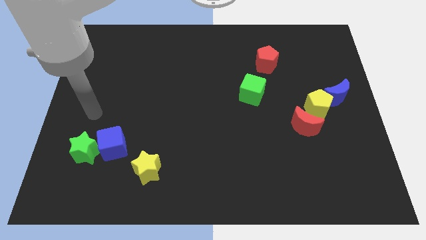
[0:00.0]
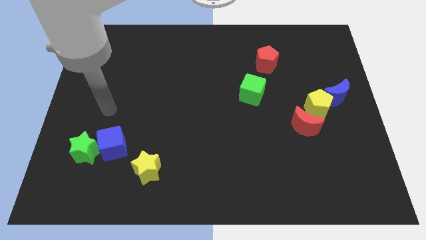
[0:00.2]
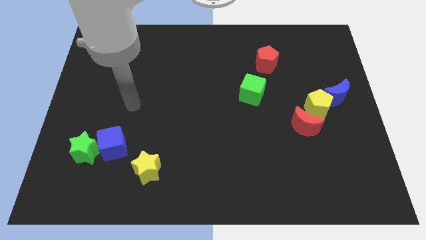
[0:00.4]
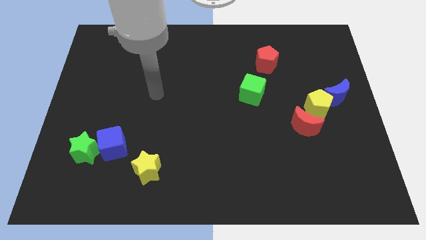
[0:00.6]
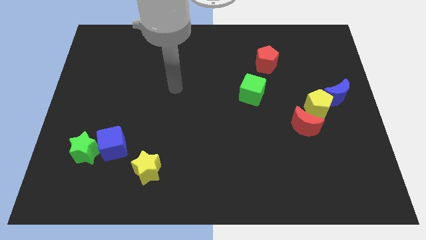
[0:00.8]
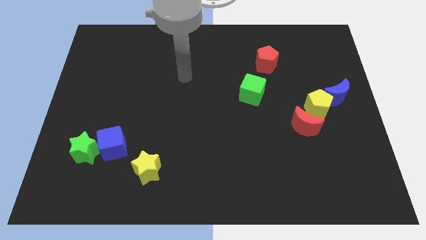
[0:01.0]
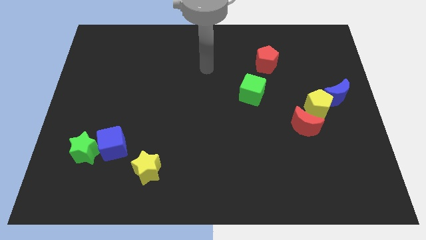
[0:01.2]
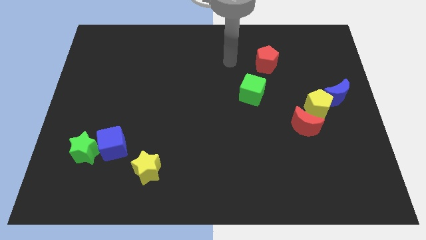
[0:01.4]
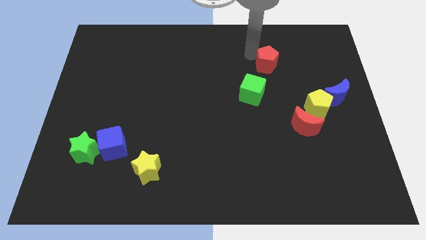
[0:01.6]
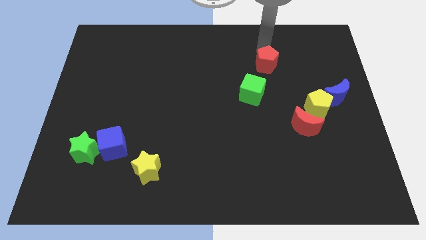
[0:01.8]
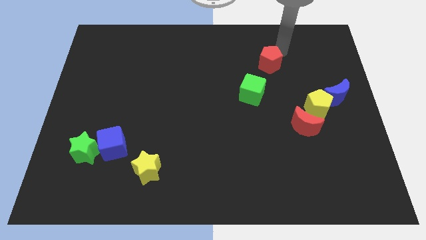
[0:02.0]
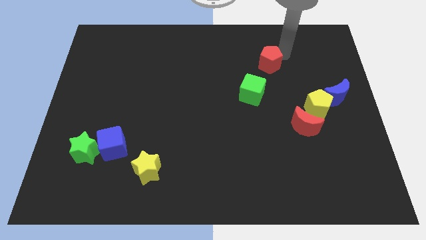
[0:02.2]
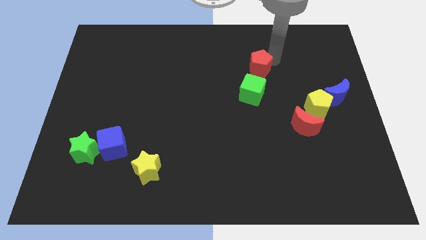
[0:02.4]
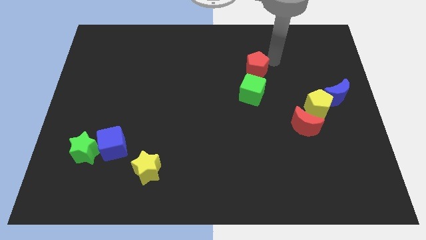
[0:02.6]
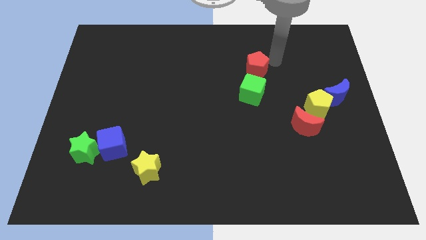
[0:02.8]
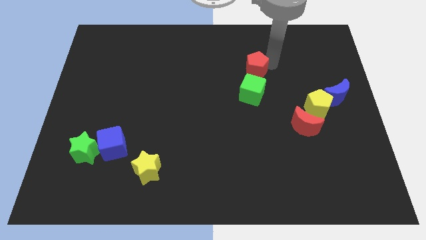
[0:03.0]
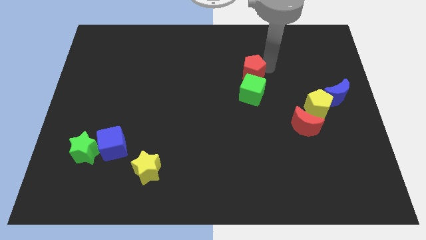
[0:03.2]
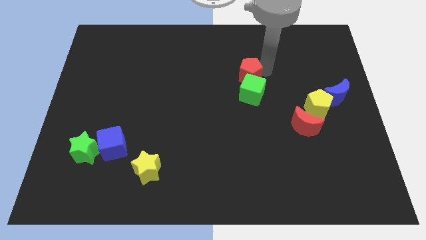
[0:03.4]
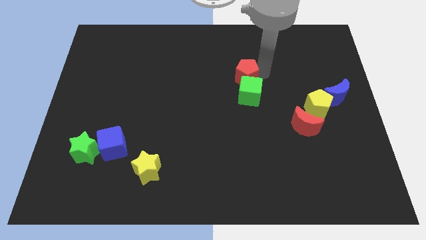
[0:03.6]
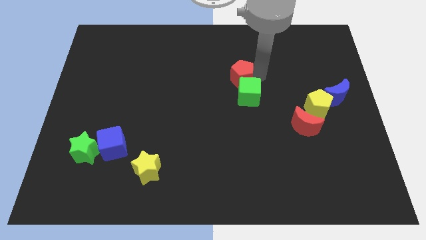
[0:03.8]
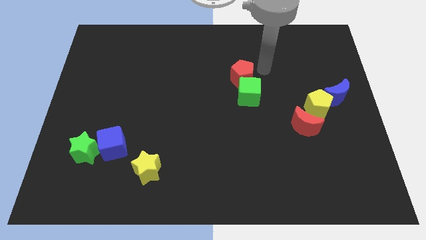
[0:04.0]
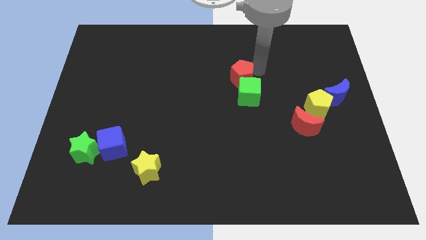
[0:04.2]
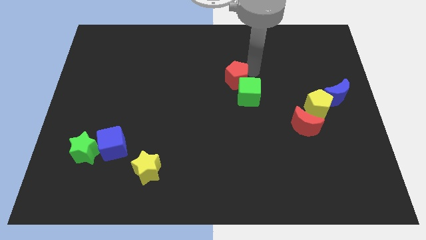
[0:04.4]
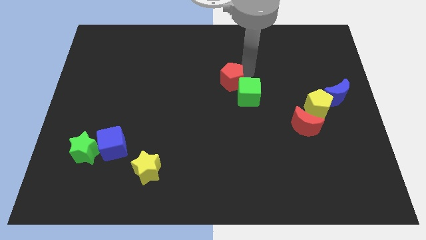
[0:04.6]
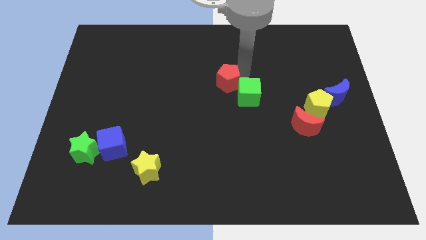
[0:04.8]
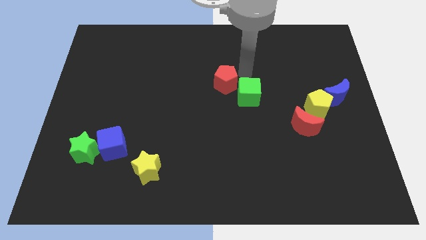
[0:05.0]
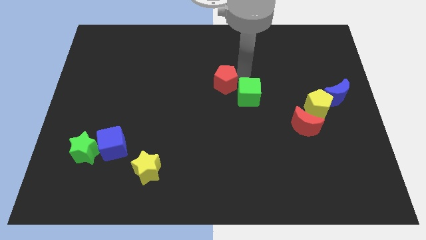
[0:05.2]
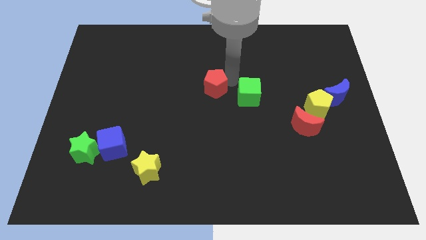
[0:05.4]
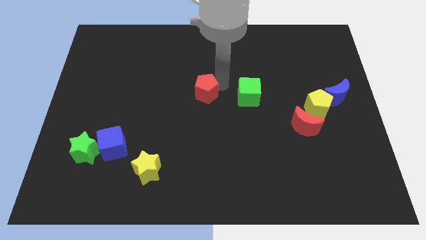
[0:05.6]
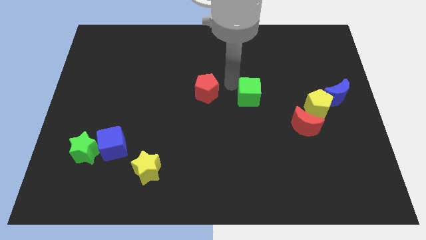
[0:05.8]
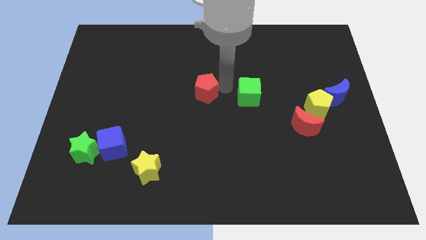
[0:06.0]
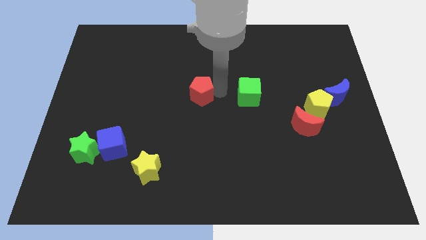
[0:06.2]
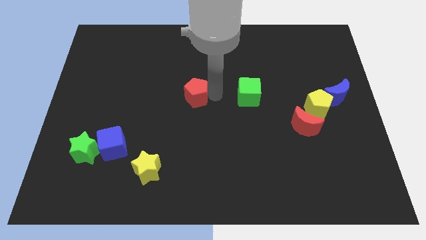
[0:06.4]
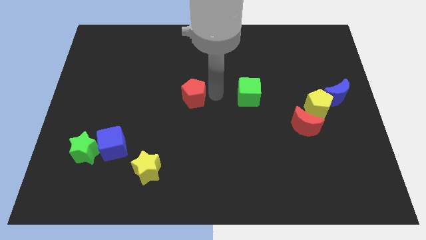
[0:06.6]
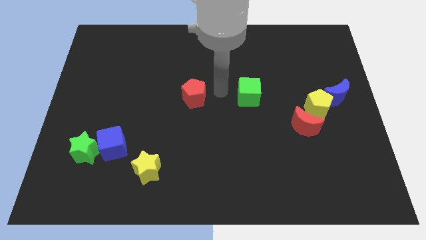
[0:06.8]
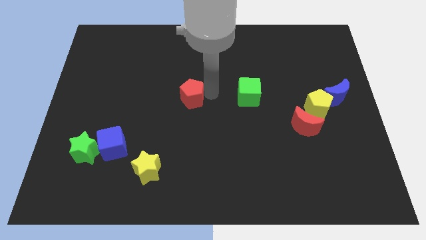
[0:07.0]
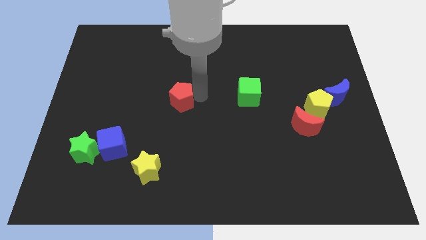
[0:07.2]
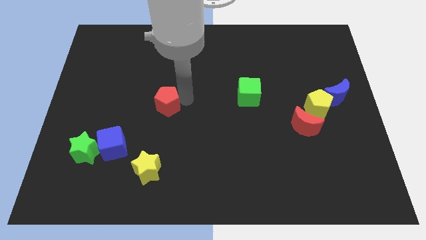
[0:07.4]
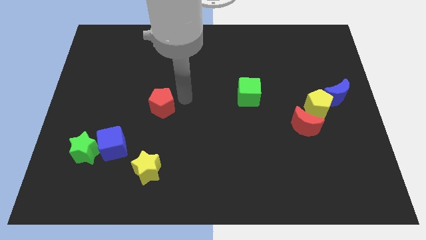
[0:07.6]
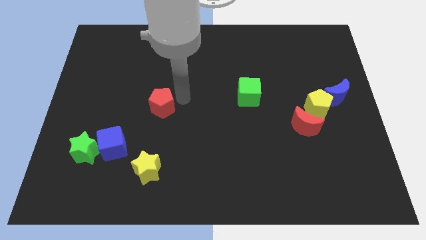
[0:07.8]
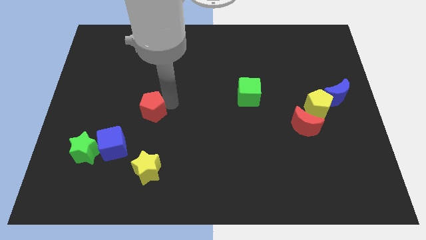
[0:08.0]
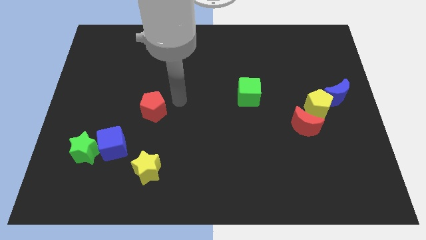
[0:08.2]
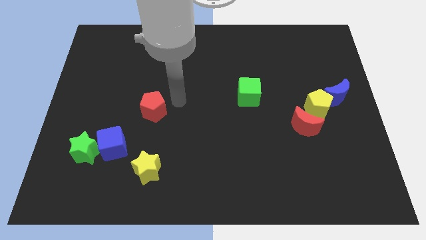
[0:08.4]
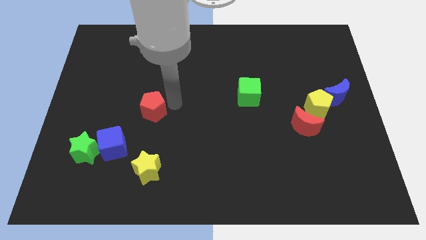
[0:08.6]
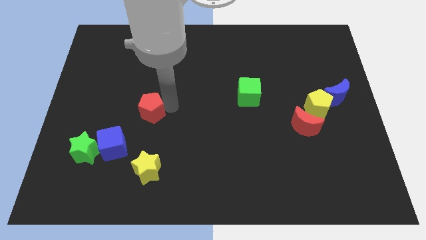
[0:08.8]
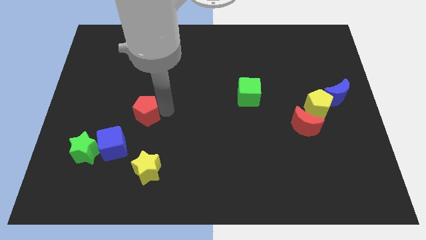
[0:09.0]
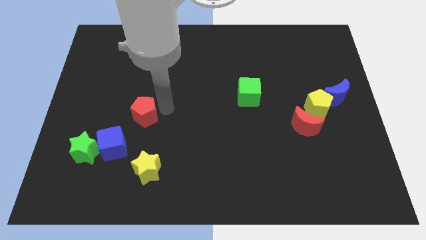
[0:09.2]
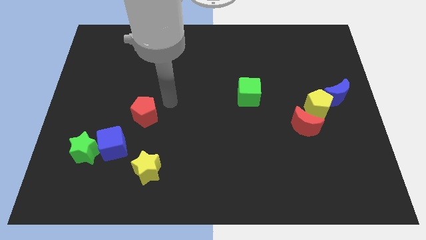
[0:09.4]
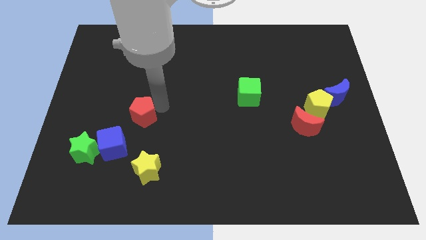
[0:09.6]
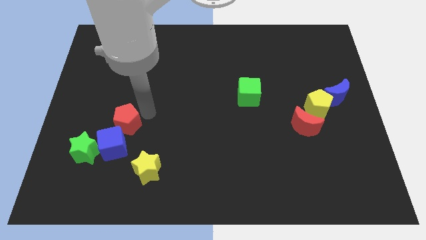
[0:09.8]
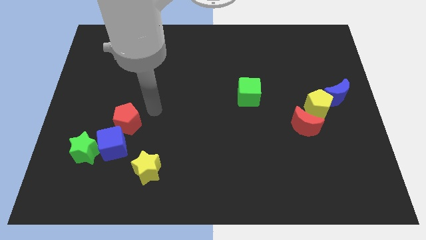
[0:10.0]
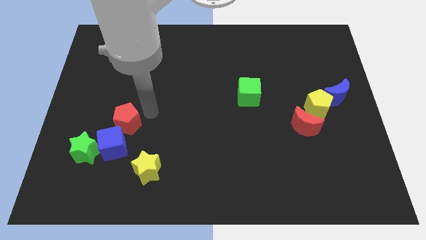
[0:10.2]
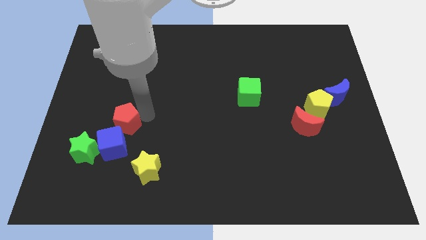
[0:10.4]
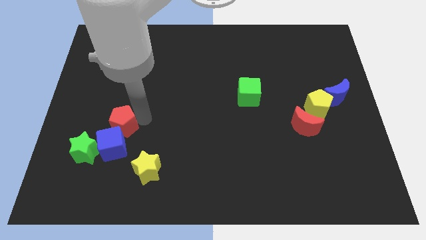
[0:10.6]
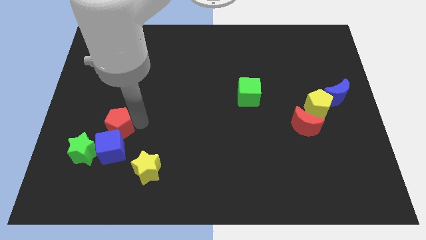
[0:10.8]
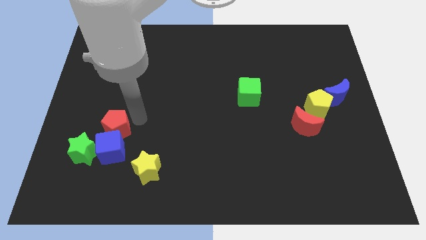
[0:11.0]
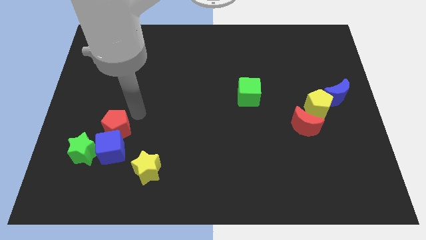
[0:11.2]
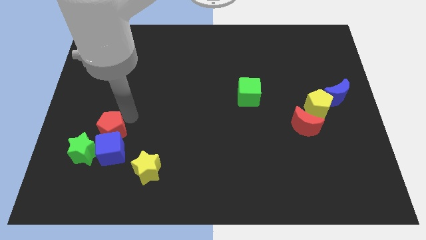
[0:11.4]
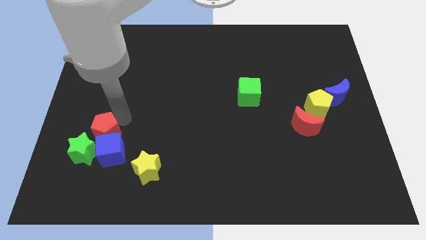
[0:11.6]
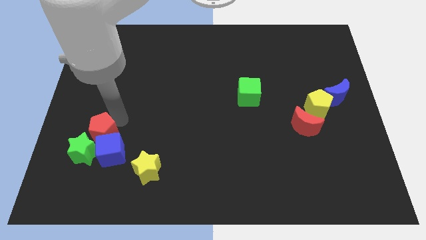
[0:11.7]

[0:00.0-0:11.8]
push the red pentagon next to the green star

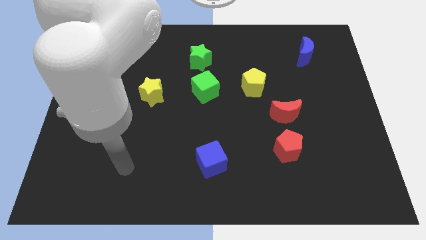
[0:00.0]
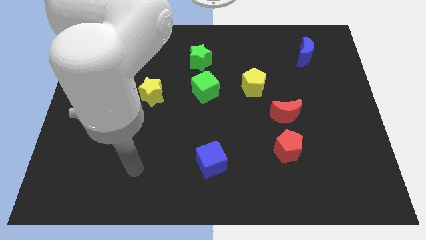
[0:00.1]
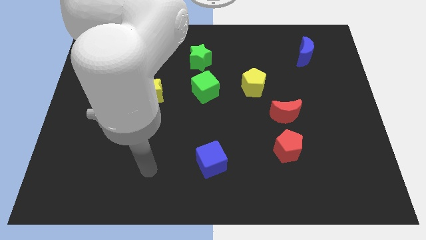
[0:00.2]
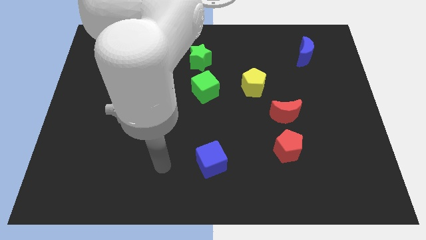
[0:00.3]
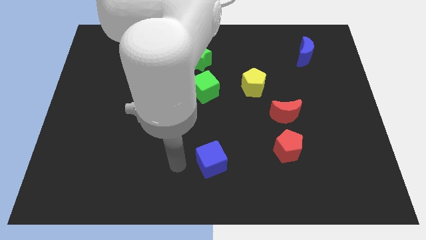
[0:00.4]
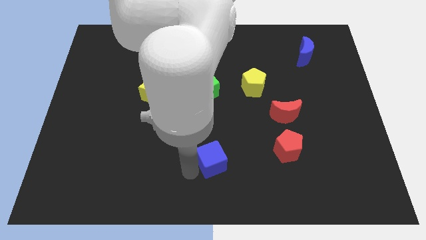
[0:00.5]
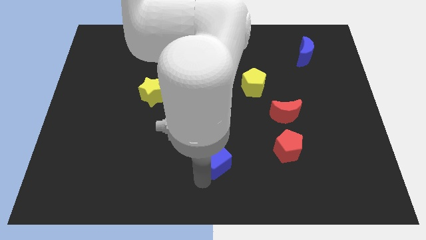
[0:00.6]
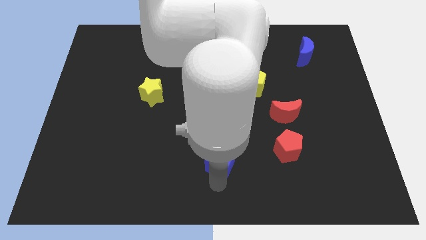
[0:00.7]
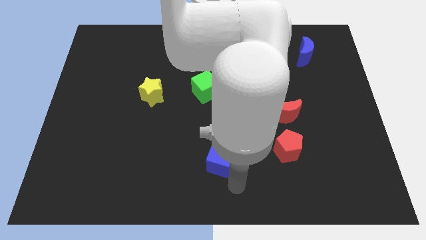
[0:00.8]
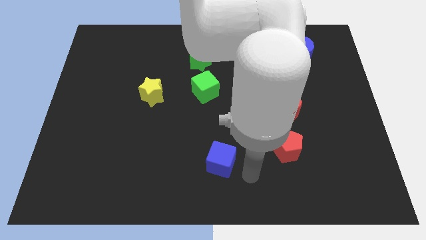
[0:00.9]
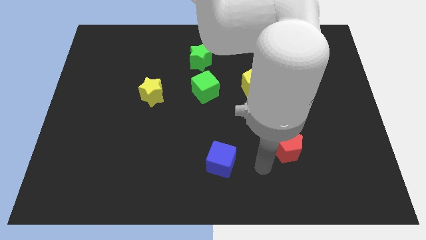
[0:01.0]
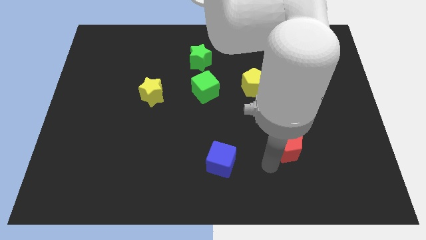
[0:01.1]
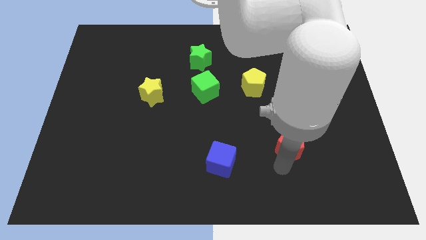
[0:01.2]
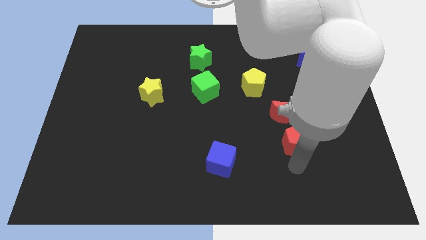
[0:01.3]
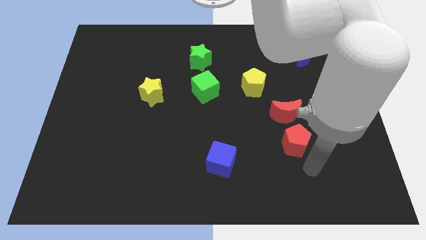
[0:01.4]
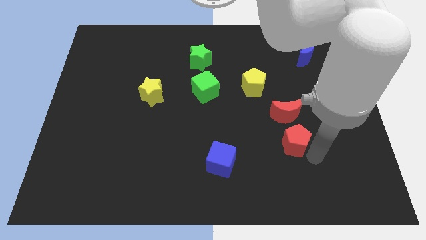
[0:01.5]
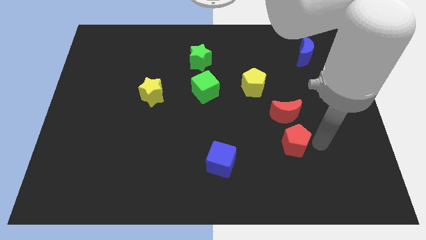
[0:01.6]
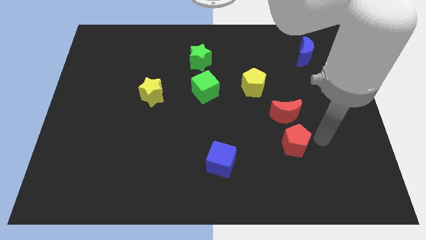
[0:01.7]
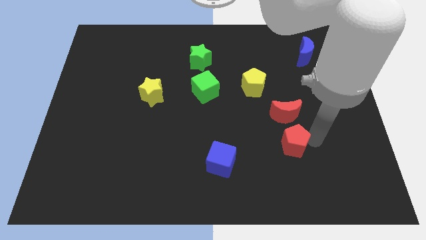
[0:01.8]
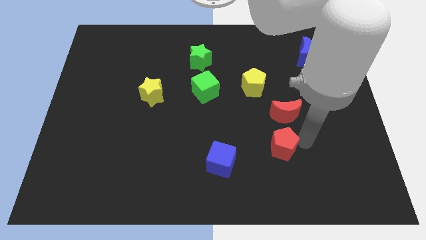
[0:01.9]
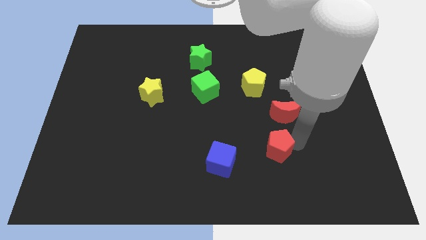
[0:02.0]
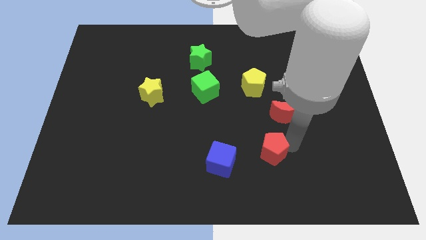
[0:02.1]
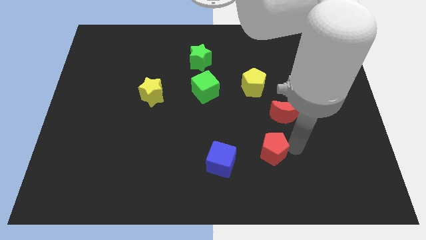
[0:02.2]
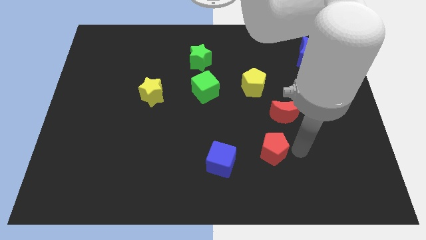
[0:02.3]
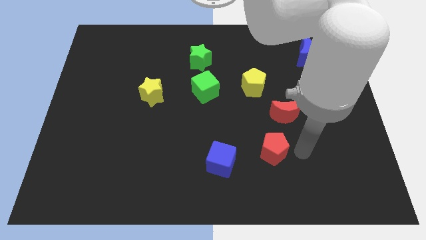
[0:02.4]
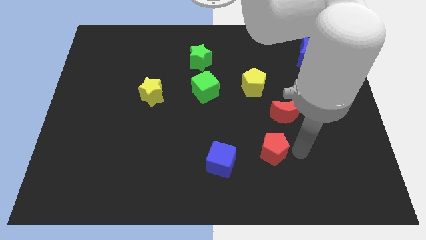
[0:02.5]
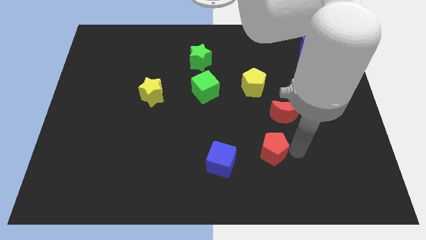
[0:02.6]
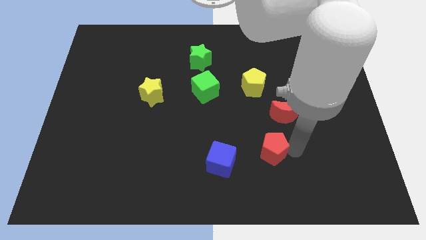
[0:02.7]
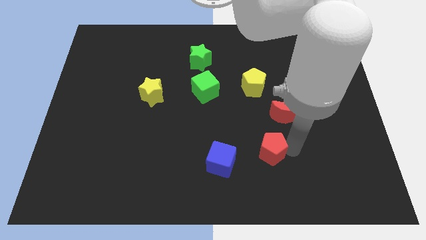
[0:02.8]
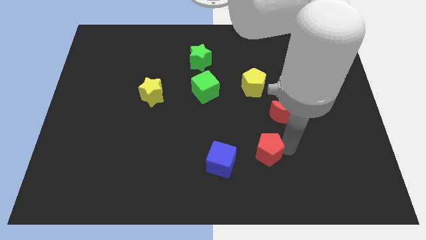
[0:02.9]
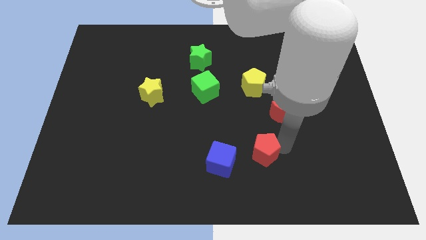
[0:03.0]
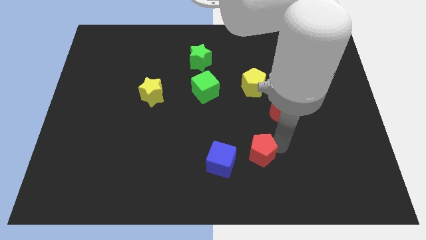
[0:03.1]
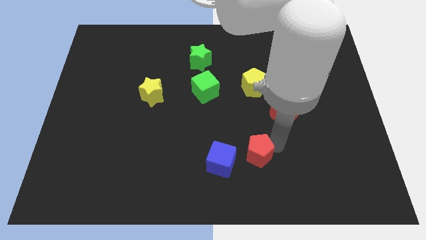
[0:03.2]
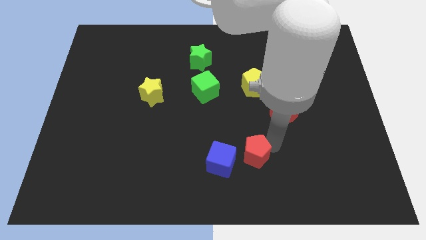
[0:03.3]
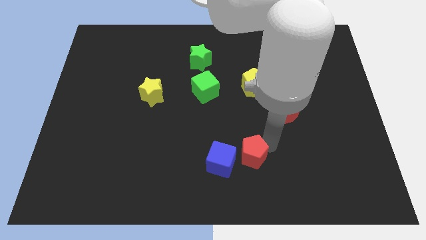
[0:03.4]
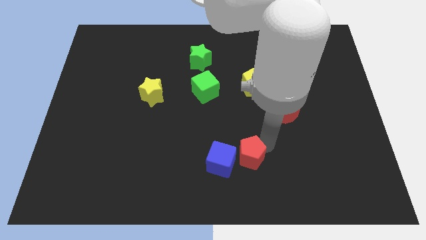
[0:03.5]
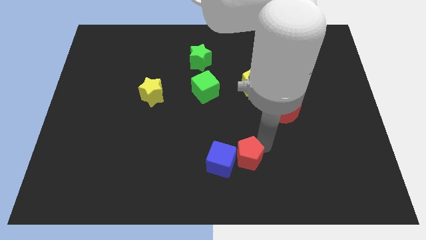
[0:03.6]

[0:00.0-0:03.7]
put the red pentagon towards the blue cube
